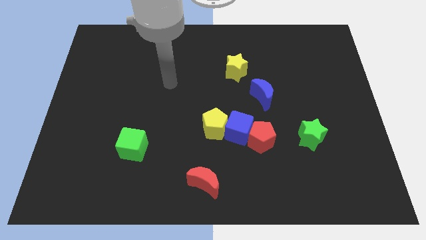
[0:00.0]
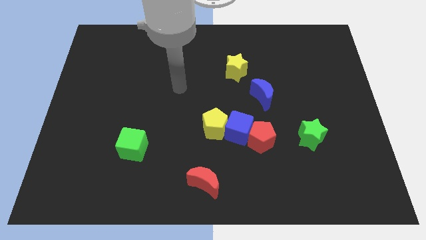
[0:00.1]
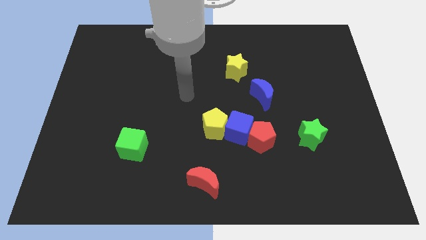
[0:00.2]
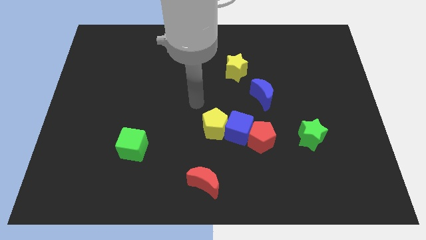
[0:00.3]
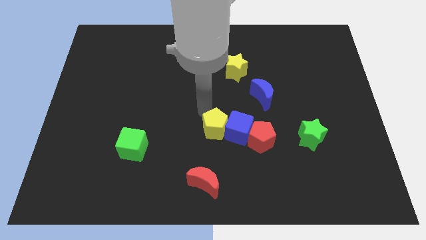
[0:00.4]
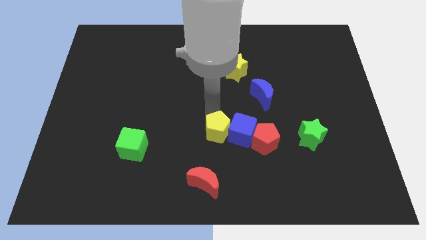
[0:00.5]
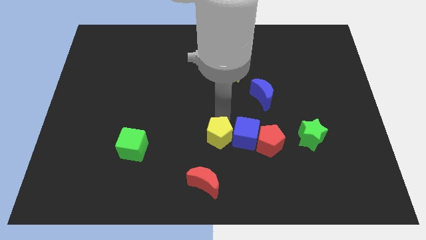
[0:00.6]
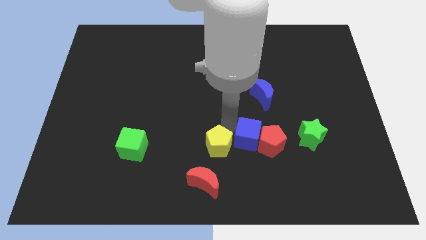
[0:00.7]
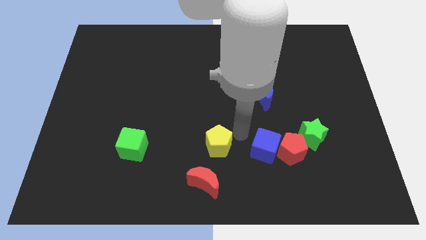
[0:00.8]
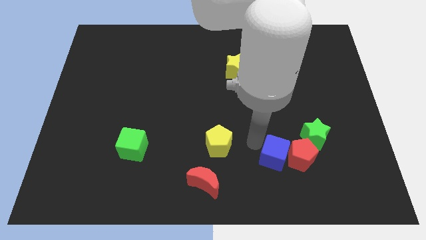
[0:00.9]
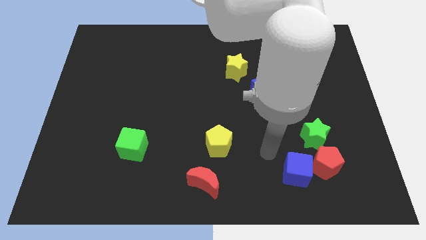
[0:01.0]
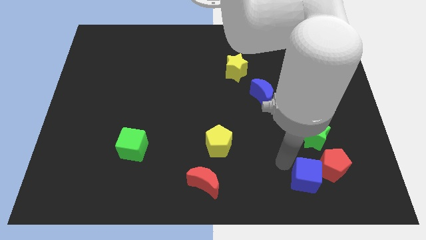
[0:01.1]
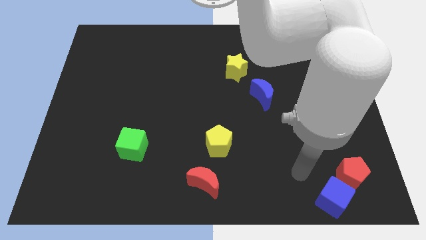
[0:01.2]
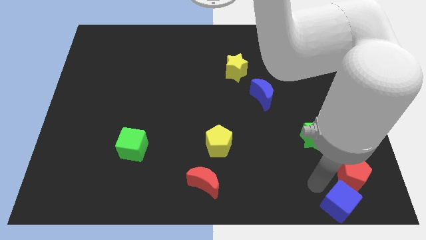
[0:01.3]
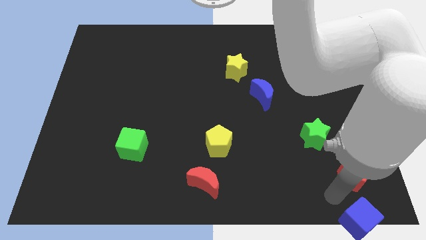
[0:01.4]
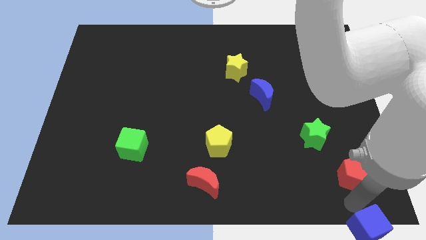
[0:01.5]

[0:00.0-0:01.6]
separate the red pentagon from the blue cube

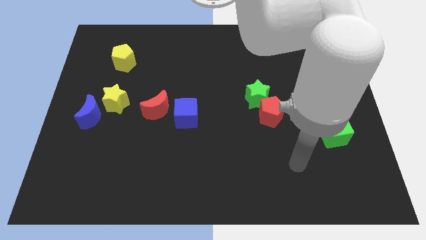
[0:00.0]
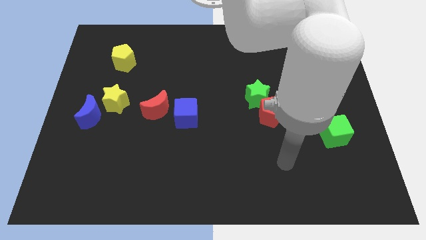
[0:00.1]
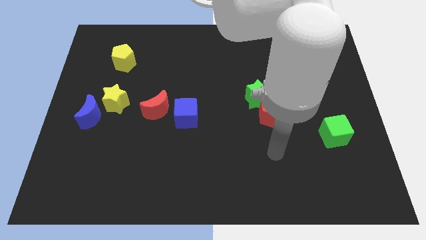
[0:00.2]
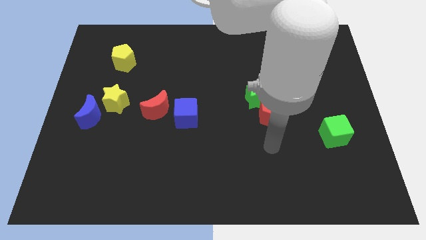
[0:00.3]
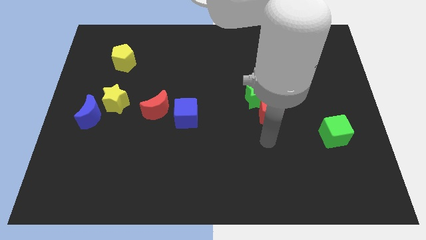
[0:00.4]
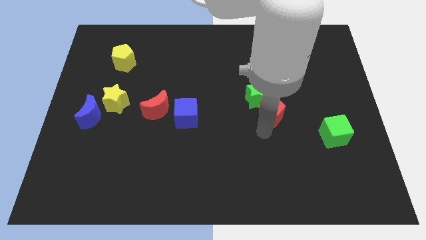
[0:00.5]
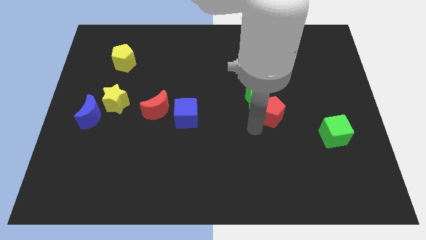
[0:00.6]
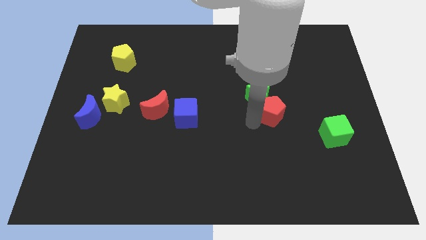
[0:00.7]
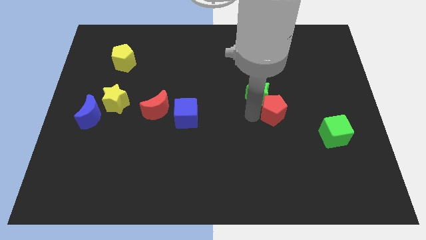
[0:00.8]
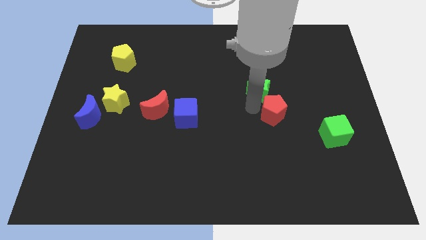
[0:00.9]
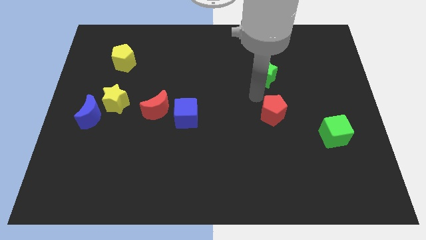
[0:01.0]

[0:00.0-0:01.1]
separate the red pentagon from the green star

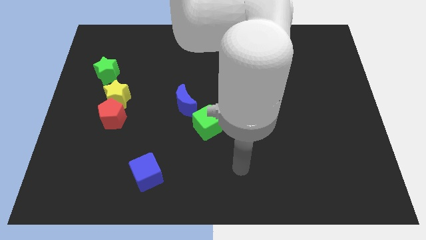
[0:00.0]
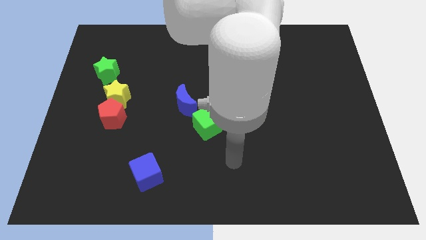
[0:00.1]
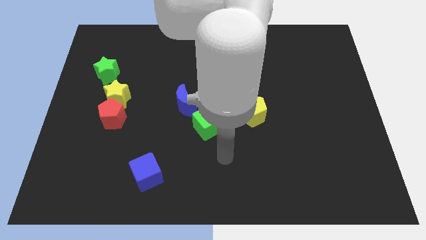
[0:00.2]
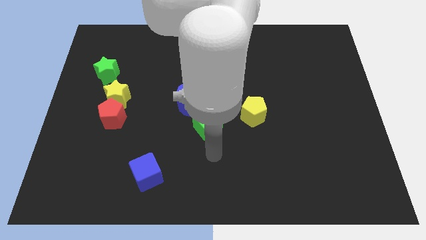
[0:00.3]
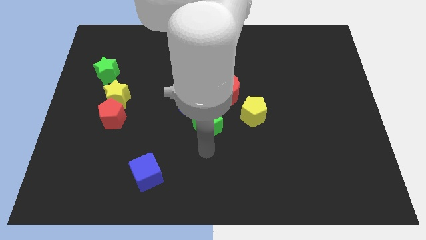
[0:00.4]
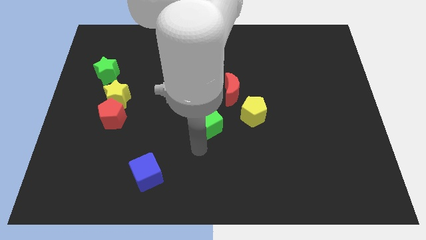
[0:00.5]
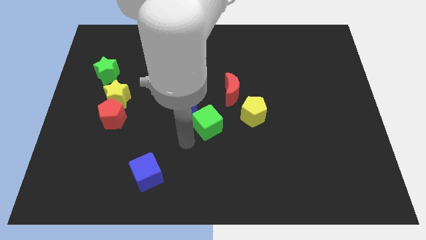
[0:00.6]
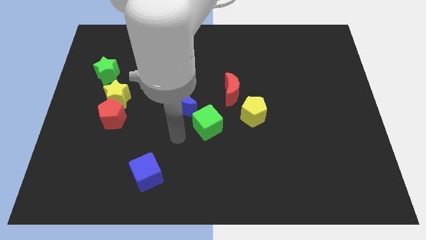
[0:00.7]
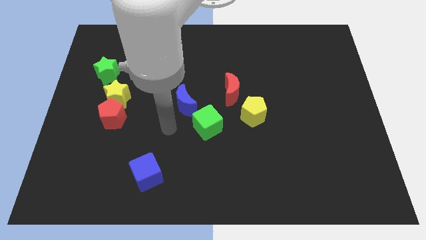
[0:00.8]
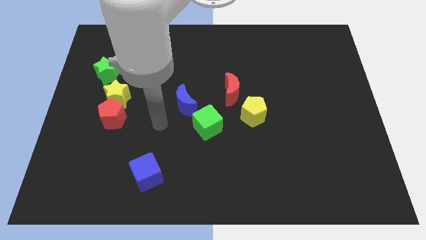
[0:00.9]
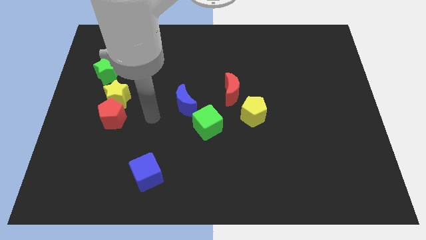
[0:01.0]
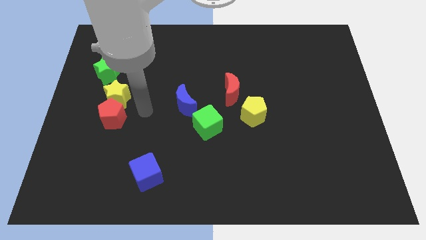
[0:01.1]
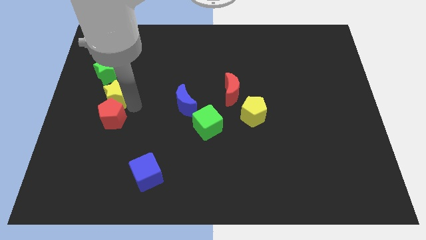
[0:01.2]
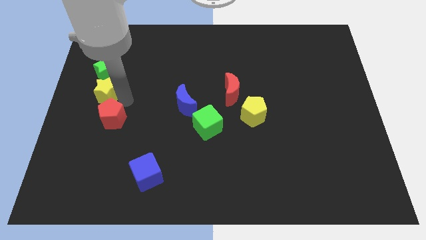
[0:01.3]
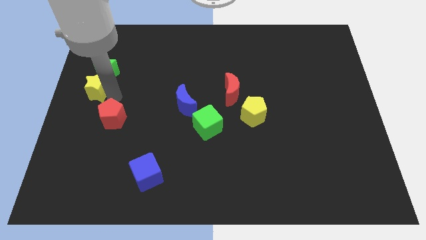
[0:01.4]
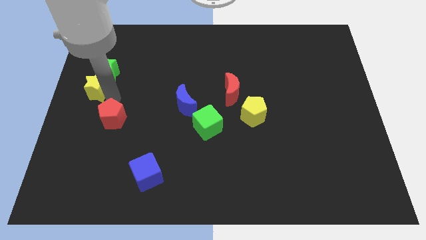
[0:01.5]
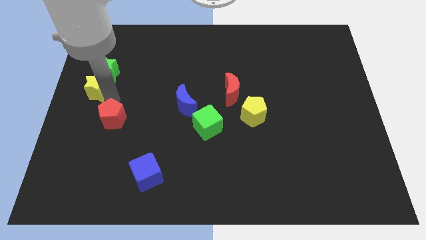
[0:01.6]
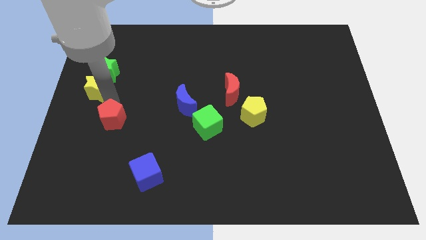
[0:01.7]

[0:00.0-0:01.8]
separate the red pentagon from the yellow star

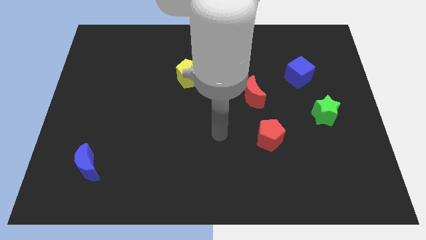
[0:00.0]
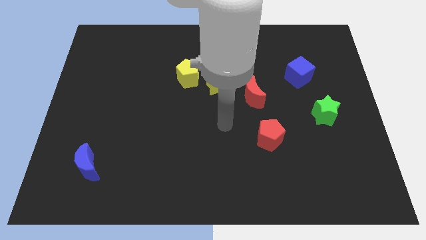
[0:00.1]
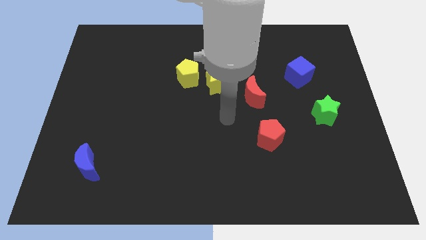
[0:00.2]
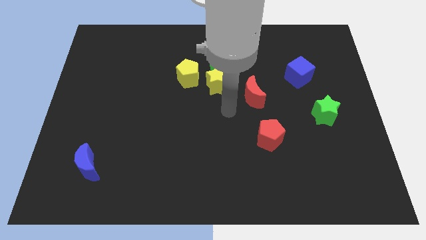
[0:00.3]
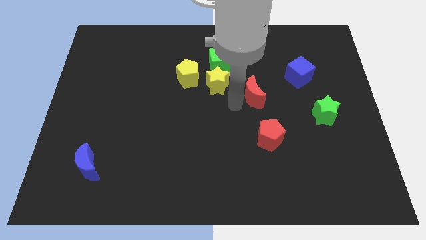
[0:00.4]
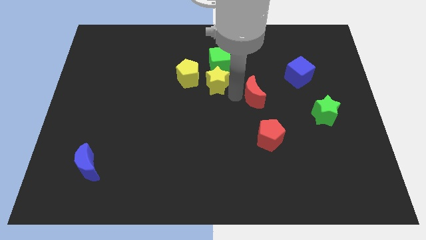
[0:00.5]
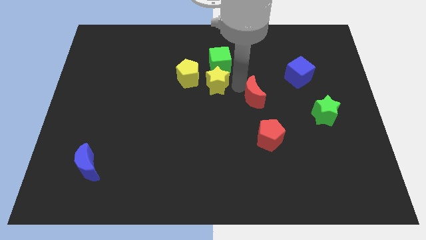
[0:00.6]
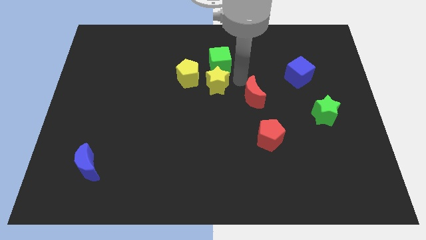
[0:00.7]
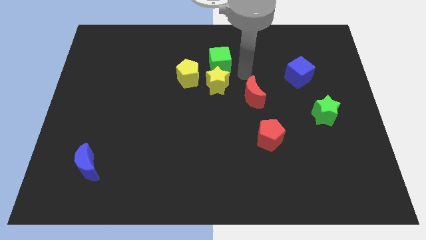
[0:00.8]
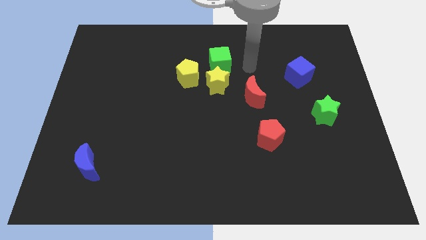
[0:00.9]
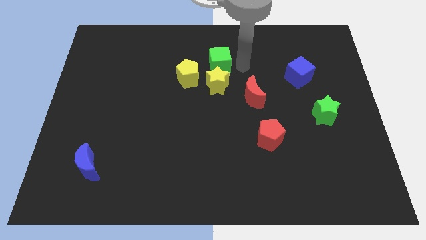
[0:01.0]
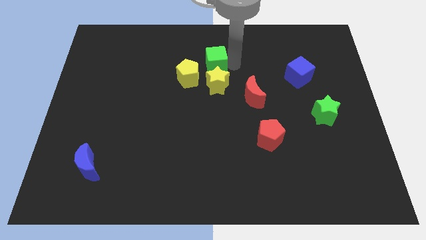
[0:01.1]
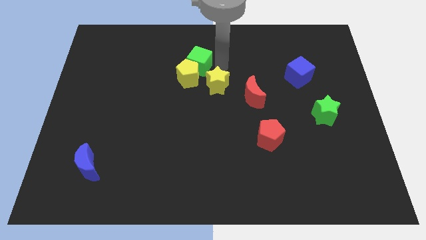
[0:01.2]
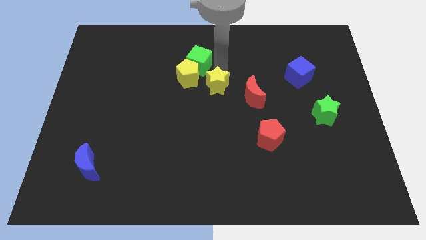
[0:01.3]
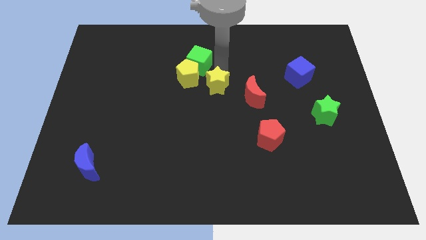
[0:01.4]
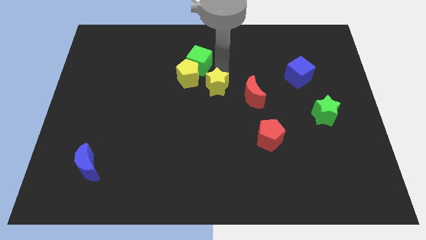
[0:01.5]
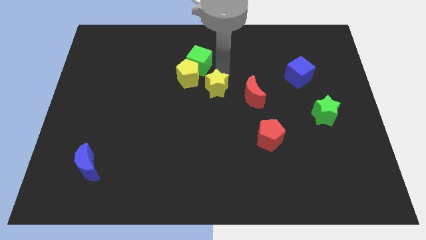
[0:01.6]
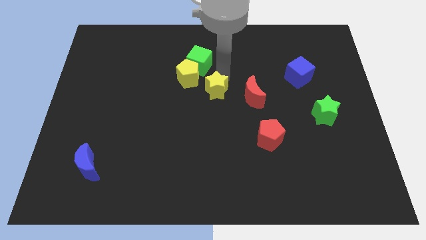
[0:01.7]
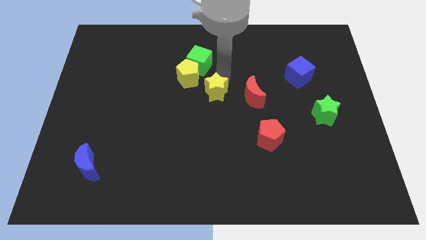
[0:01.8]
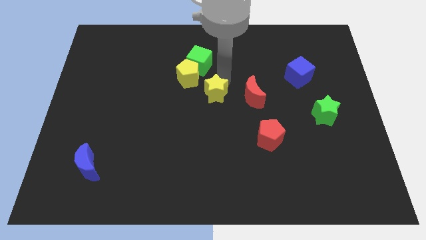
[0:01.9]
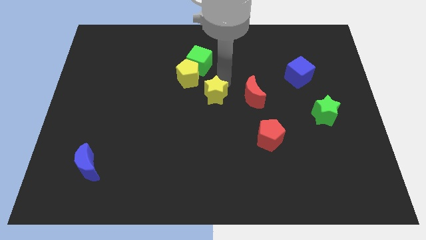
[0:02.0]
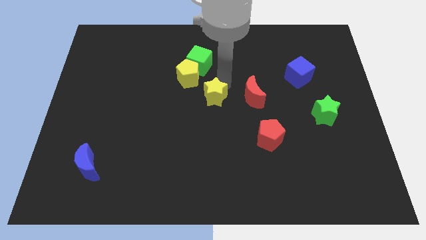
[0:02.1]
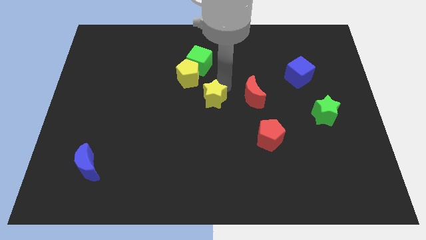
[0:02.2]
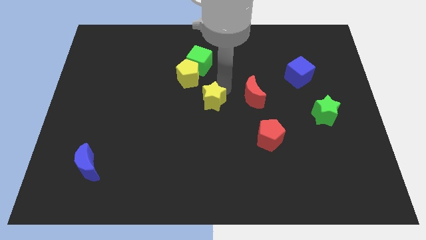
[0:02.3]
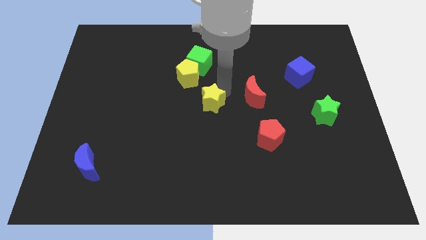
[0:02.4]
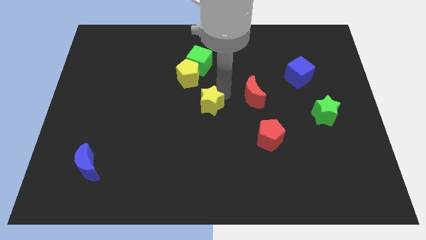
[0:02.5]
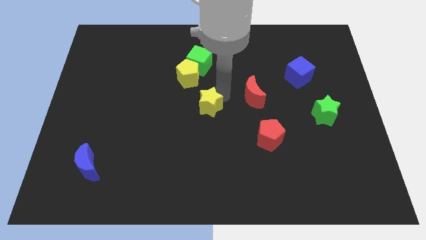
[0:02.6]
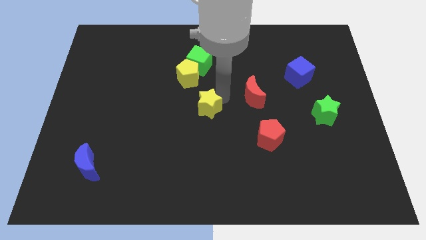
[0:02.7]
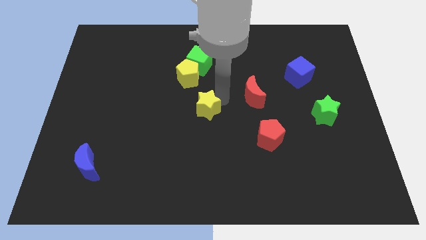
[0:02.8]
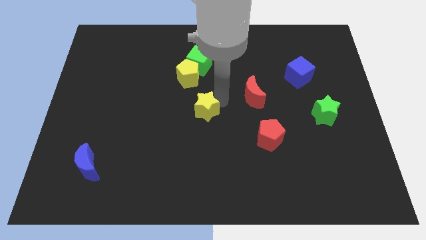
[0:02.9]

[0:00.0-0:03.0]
separate the yellow star from the green cube, yellow pentagon, and red moon

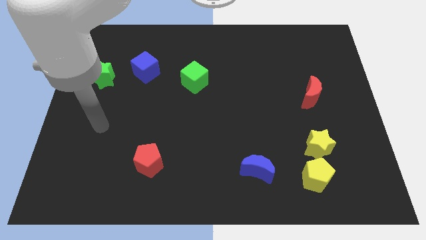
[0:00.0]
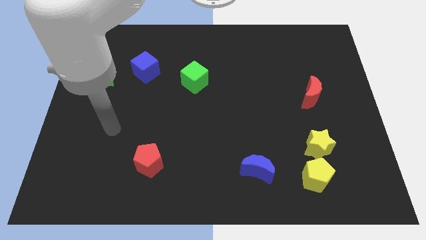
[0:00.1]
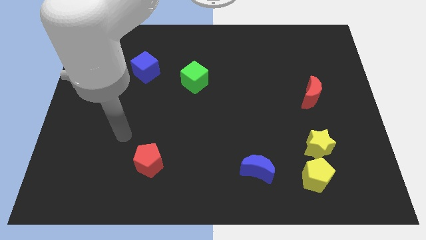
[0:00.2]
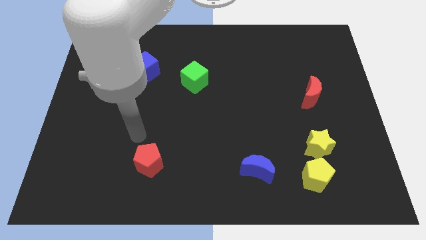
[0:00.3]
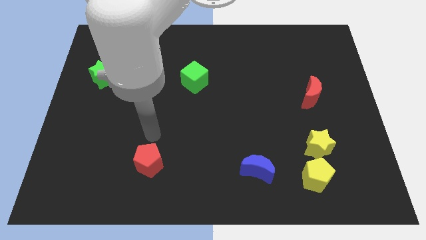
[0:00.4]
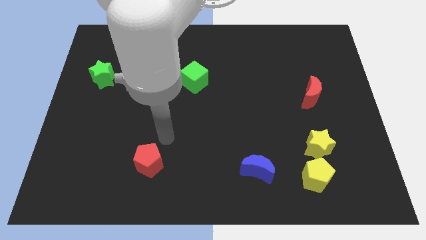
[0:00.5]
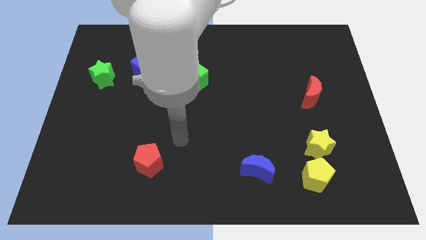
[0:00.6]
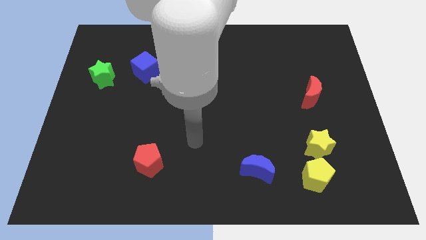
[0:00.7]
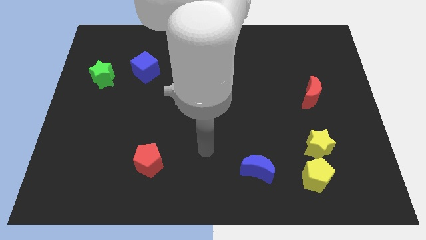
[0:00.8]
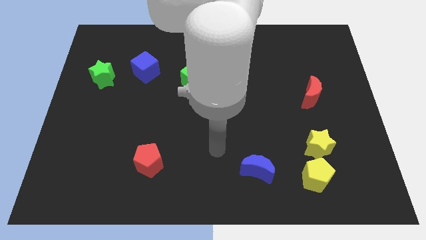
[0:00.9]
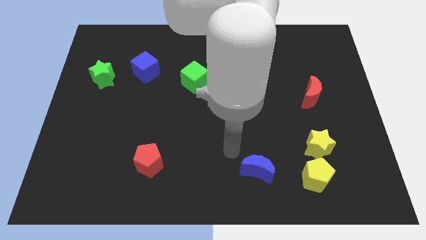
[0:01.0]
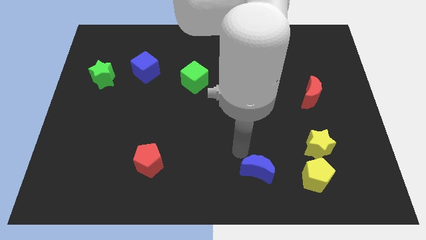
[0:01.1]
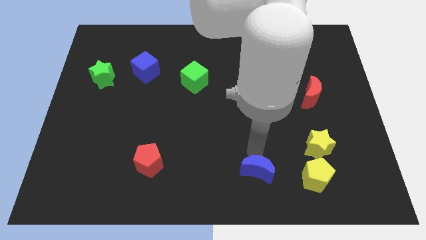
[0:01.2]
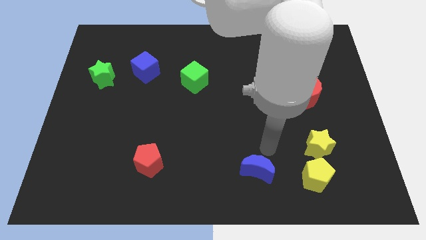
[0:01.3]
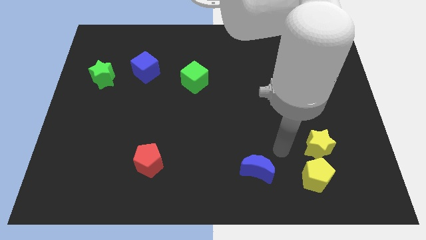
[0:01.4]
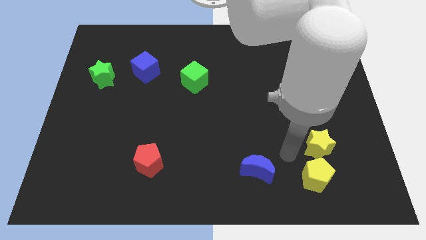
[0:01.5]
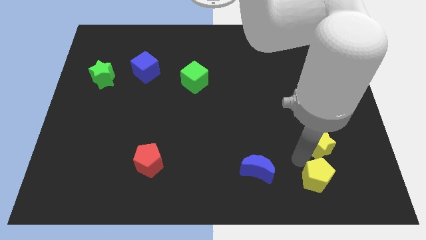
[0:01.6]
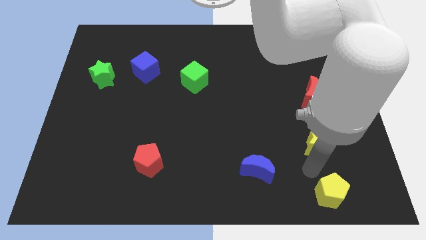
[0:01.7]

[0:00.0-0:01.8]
move the yellow star away from the yellow pentagon
